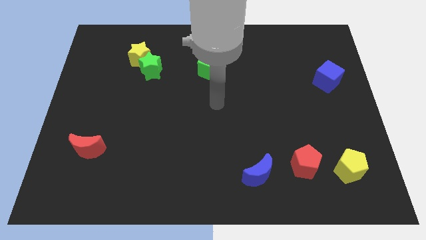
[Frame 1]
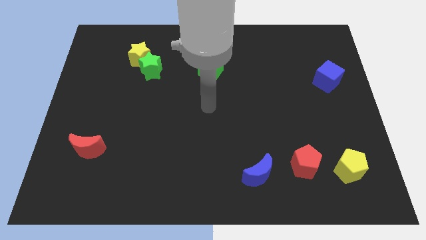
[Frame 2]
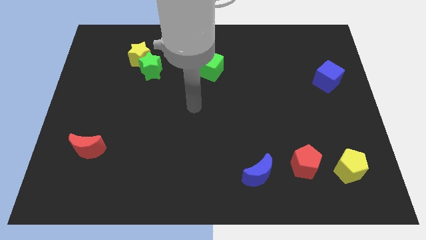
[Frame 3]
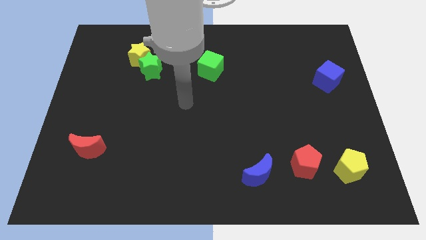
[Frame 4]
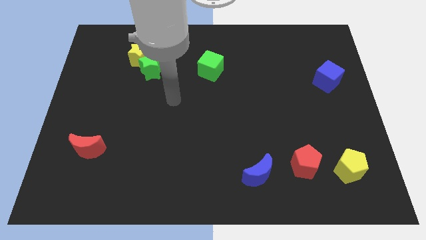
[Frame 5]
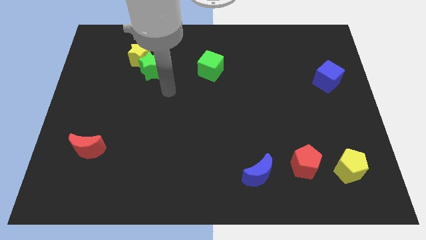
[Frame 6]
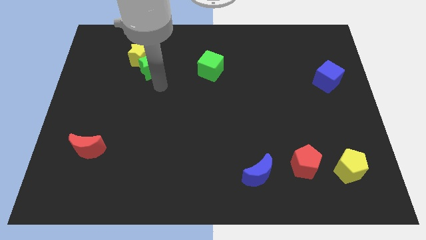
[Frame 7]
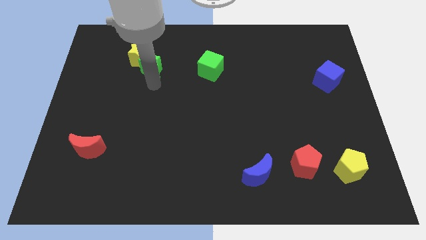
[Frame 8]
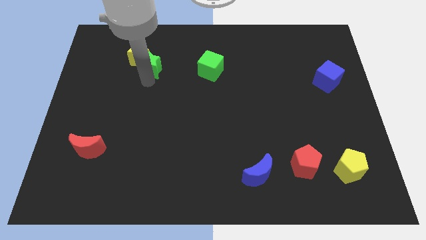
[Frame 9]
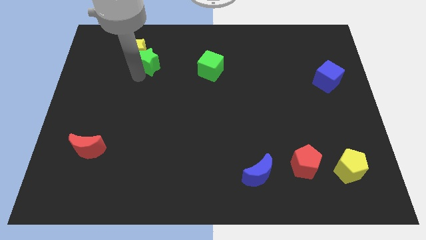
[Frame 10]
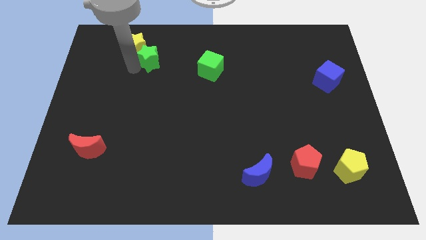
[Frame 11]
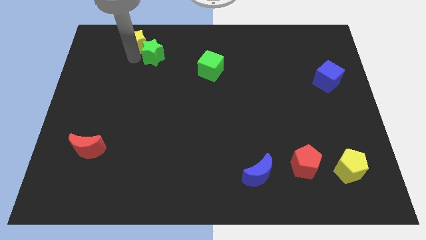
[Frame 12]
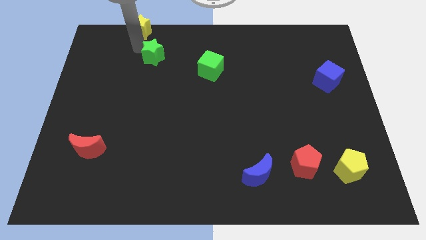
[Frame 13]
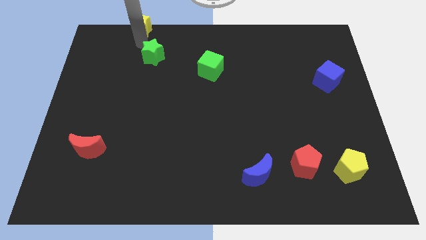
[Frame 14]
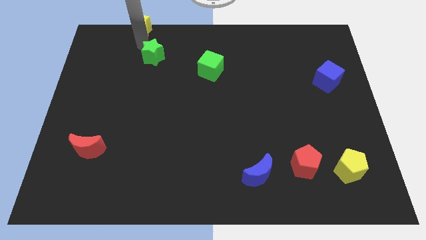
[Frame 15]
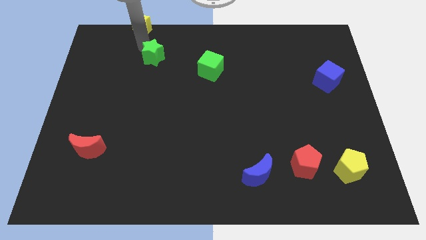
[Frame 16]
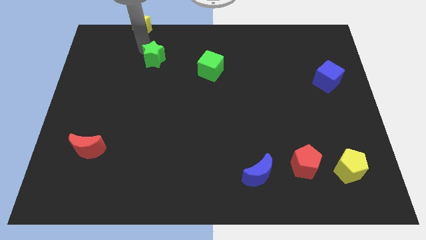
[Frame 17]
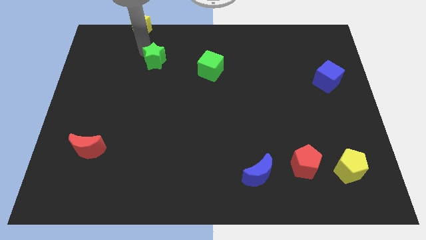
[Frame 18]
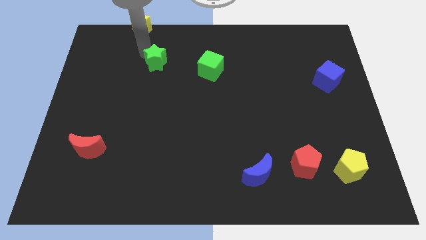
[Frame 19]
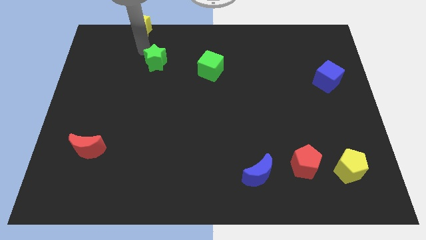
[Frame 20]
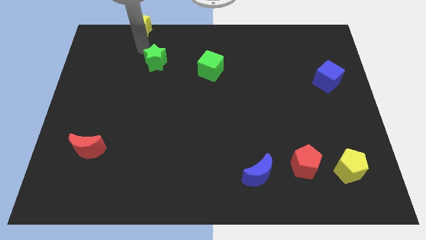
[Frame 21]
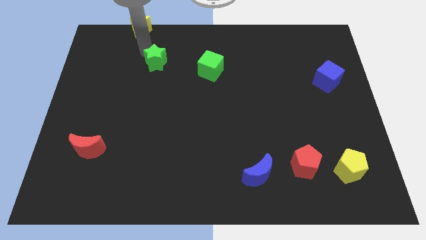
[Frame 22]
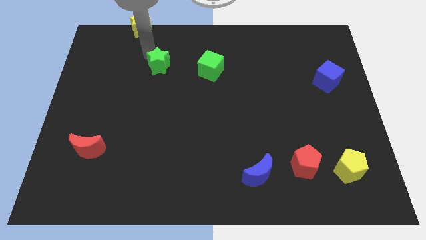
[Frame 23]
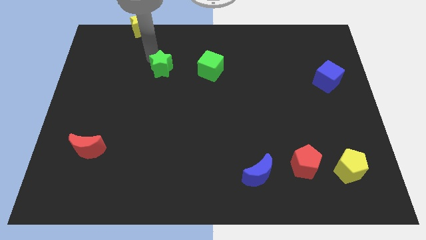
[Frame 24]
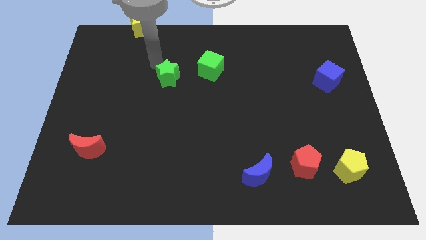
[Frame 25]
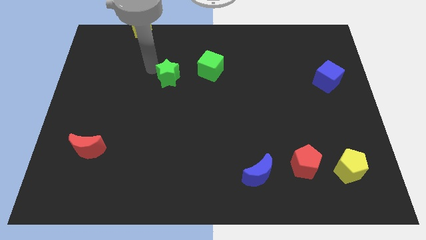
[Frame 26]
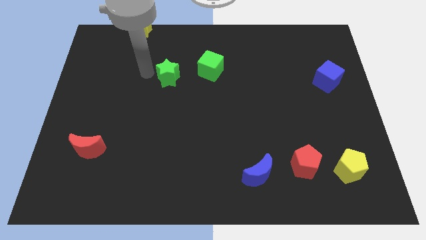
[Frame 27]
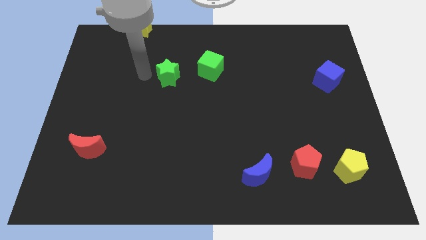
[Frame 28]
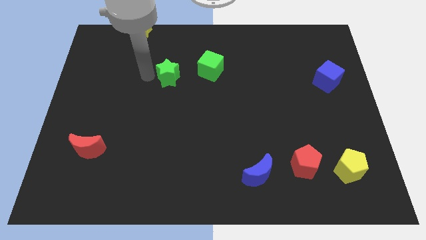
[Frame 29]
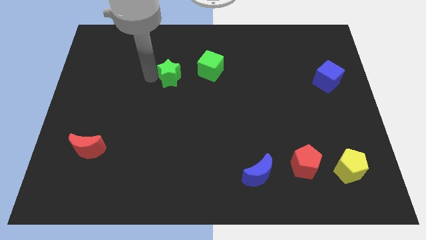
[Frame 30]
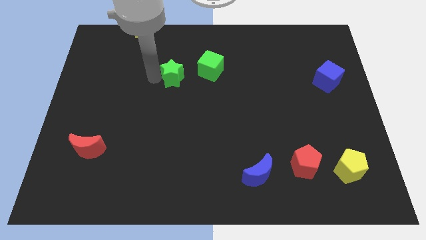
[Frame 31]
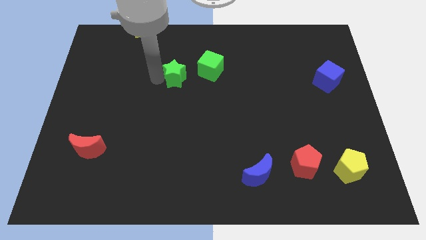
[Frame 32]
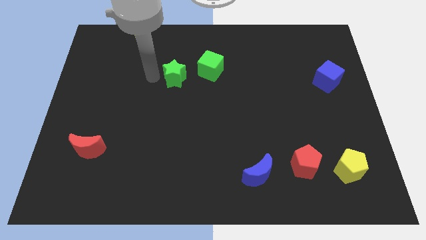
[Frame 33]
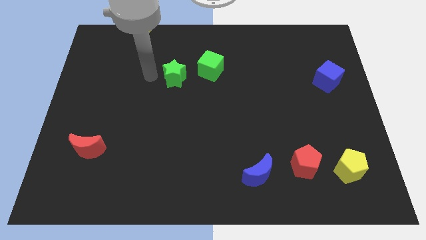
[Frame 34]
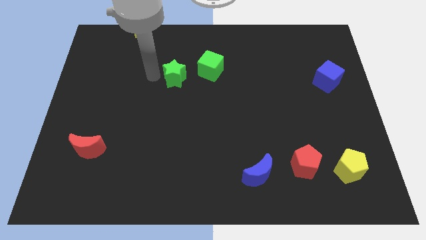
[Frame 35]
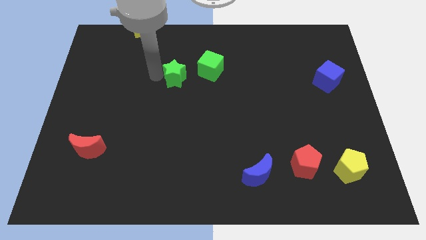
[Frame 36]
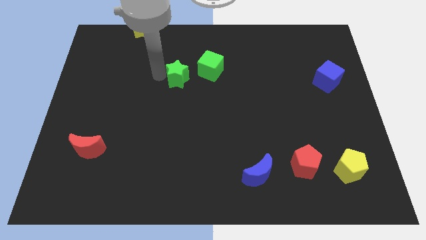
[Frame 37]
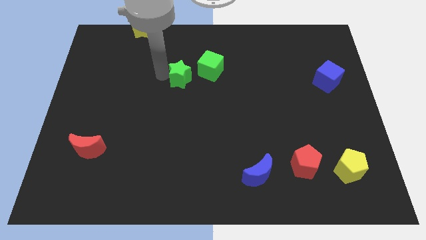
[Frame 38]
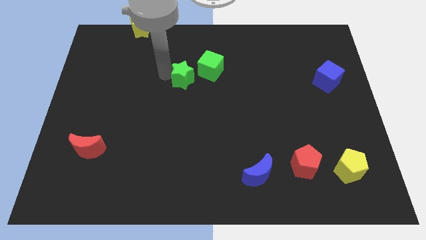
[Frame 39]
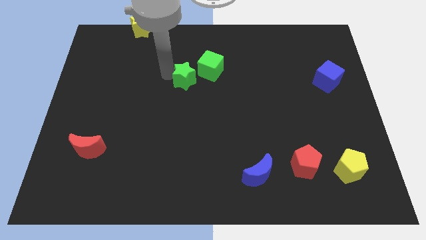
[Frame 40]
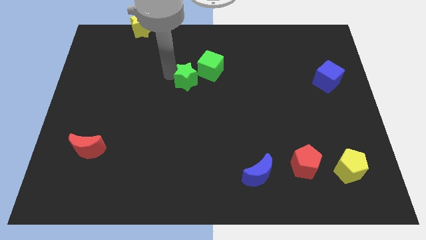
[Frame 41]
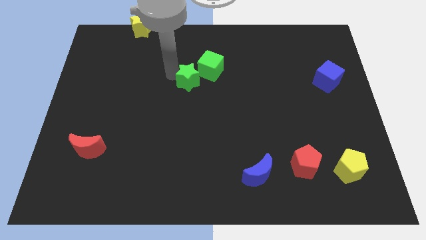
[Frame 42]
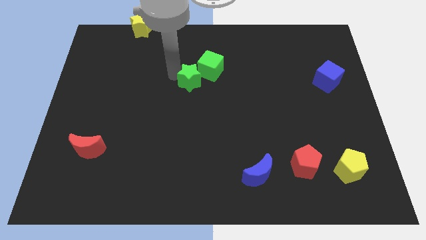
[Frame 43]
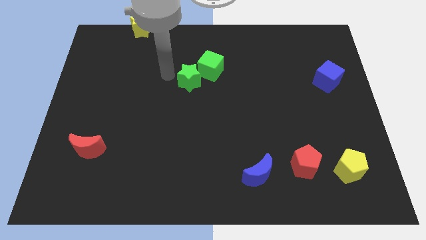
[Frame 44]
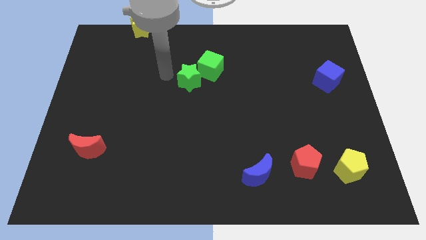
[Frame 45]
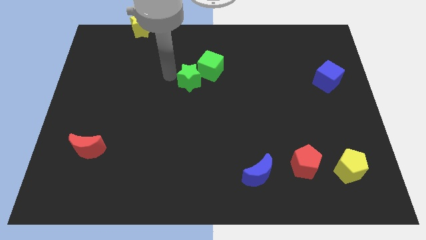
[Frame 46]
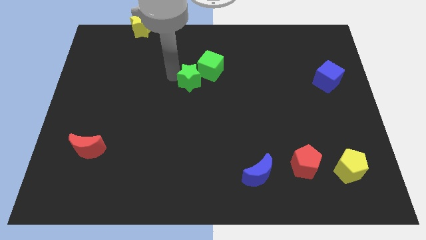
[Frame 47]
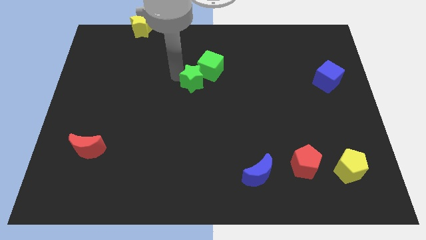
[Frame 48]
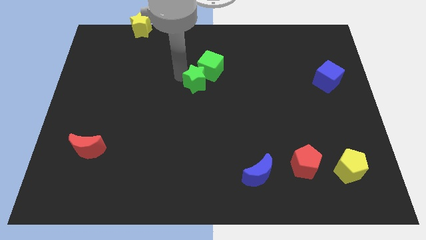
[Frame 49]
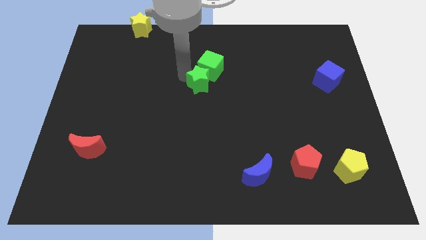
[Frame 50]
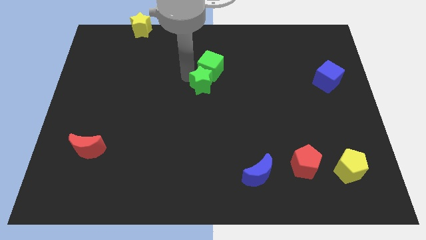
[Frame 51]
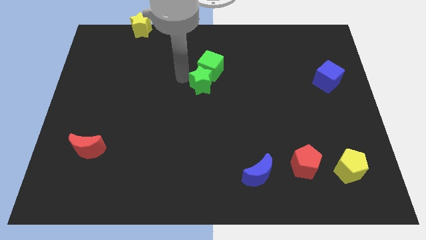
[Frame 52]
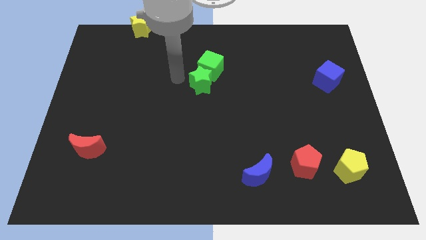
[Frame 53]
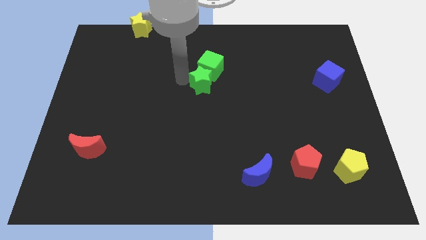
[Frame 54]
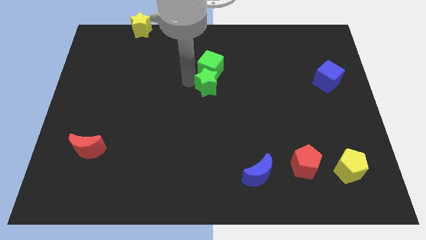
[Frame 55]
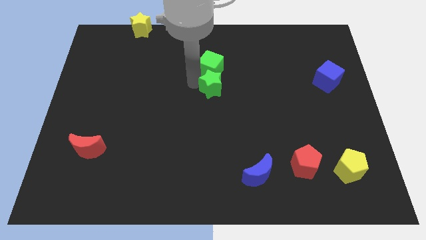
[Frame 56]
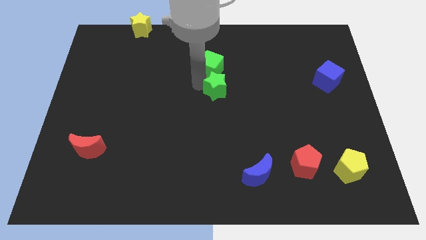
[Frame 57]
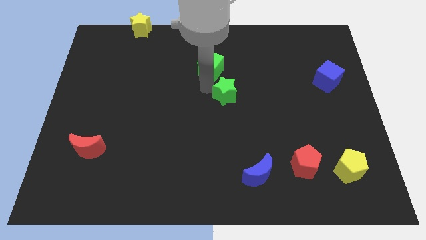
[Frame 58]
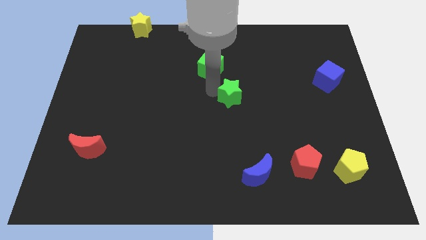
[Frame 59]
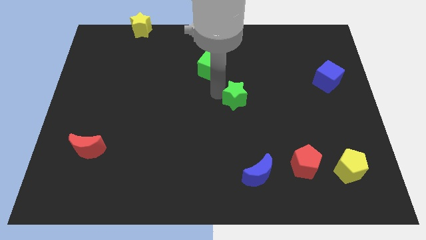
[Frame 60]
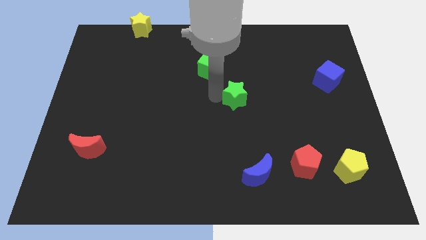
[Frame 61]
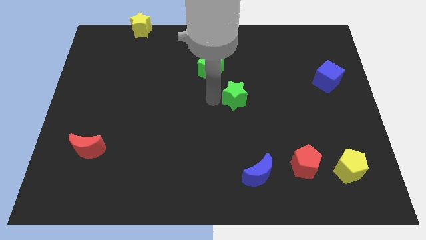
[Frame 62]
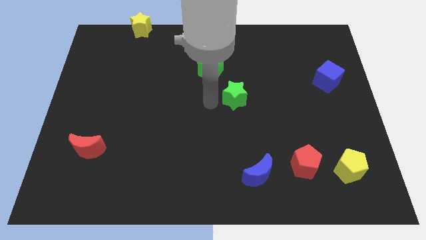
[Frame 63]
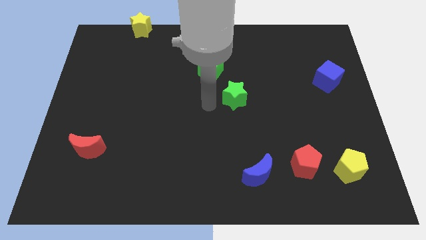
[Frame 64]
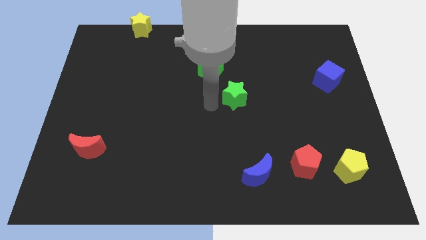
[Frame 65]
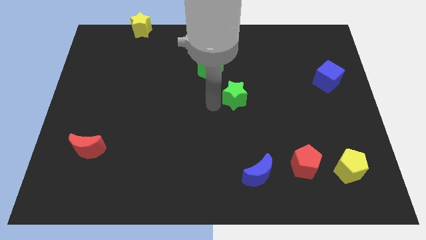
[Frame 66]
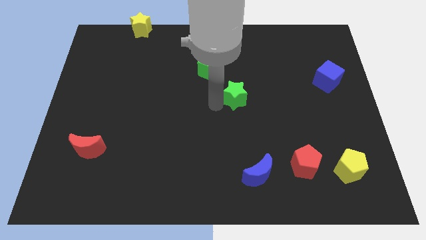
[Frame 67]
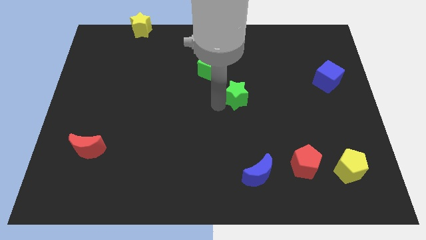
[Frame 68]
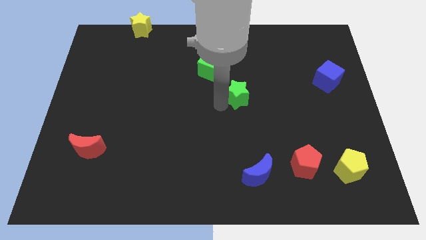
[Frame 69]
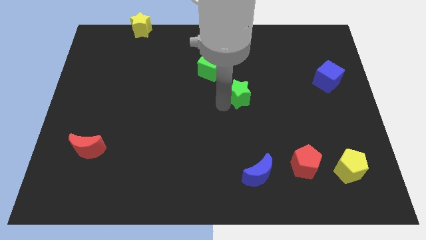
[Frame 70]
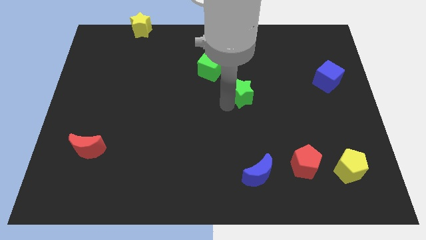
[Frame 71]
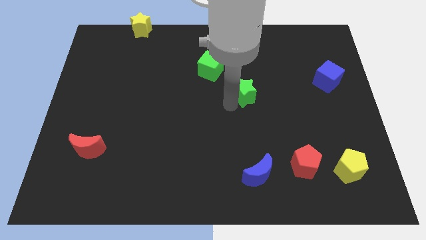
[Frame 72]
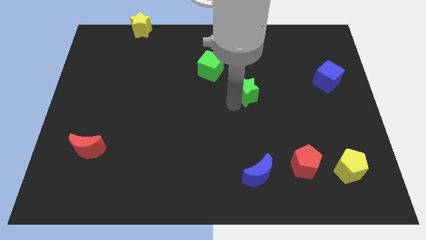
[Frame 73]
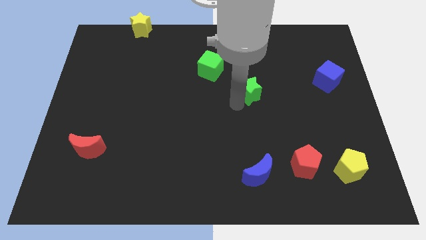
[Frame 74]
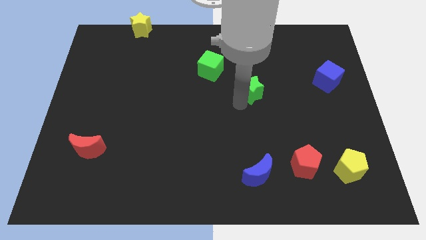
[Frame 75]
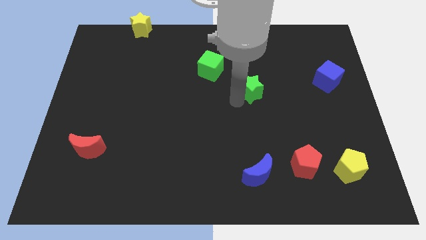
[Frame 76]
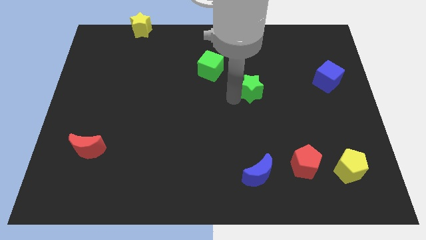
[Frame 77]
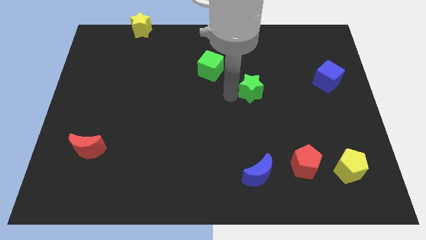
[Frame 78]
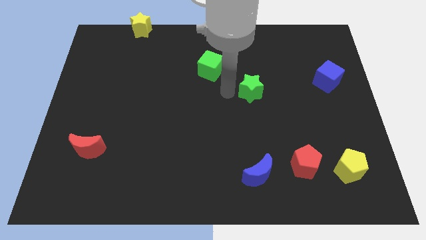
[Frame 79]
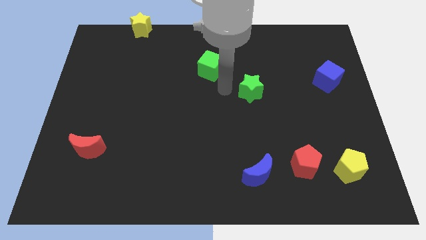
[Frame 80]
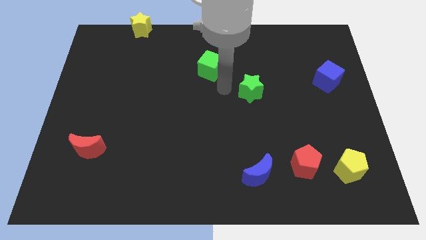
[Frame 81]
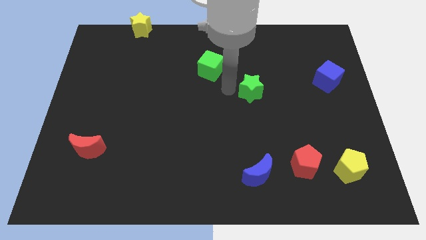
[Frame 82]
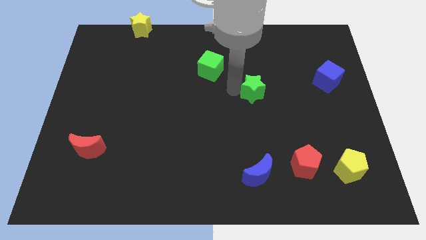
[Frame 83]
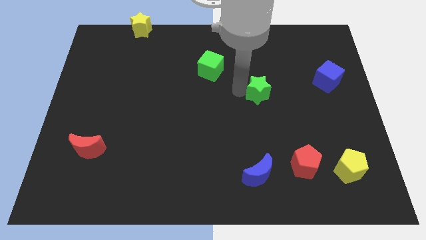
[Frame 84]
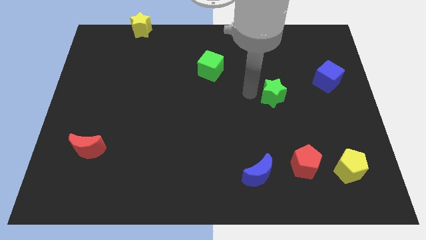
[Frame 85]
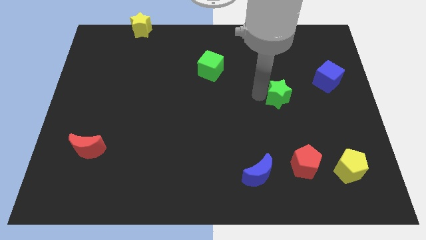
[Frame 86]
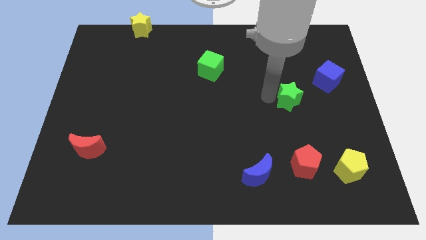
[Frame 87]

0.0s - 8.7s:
push the green star to the bottom left of the blue cube
